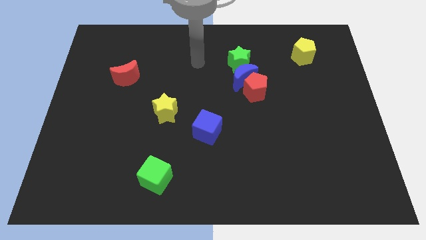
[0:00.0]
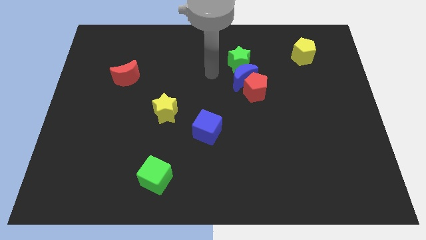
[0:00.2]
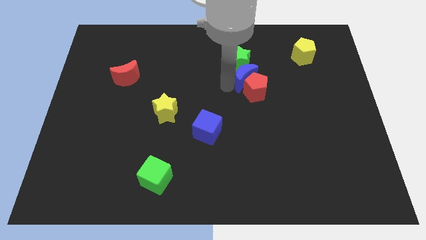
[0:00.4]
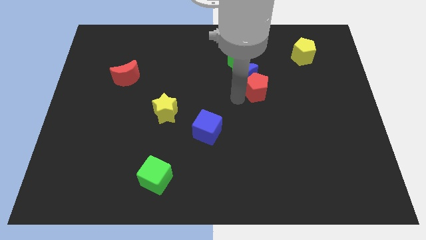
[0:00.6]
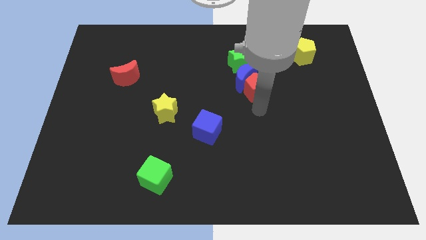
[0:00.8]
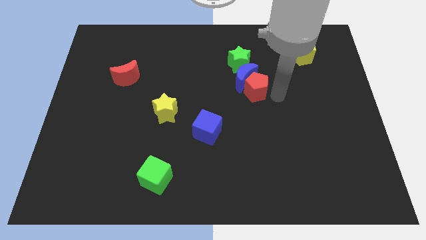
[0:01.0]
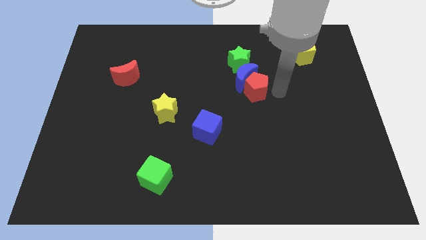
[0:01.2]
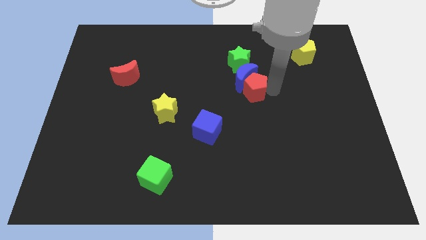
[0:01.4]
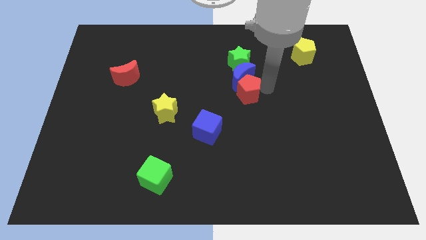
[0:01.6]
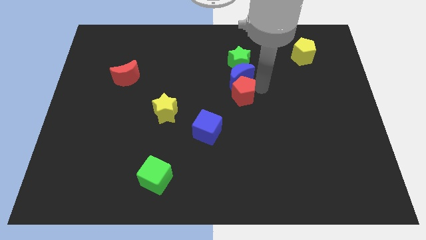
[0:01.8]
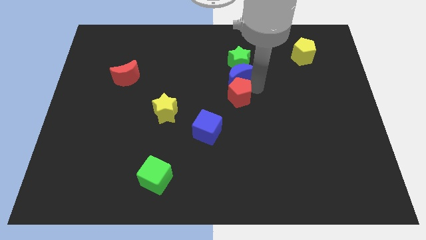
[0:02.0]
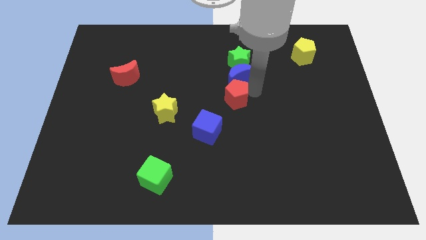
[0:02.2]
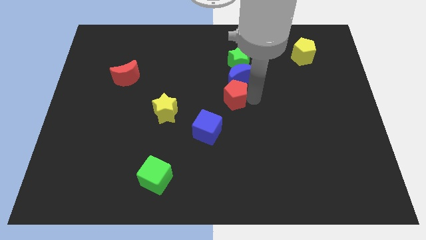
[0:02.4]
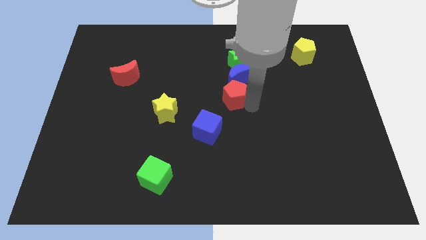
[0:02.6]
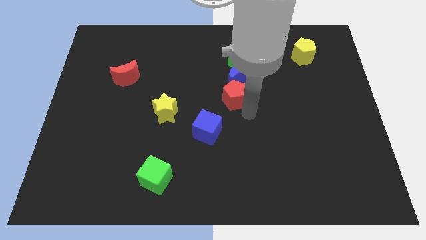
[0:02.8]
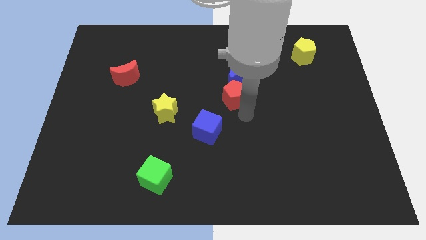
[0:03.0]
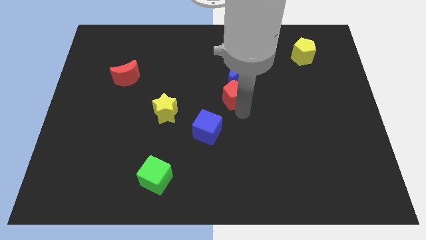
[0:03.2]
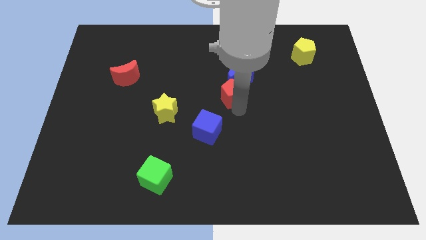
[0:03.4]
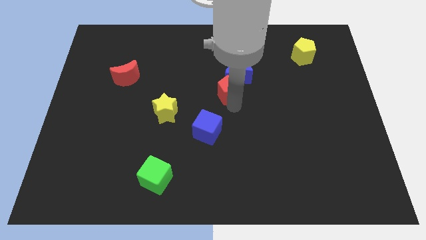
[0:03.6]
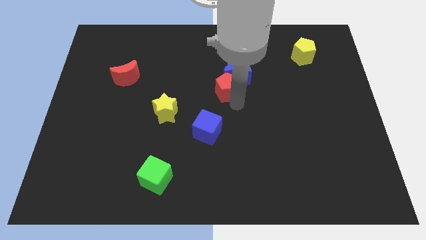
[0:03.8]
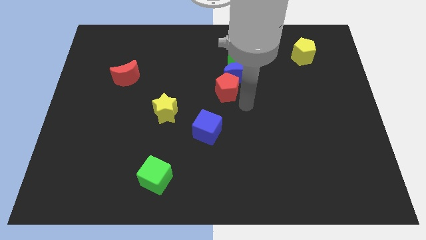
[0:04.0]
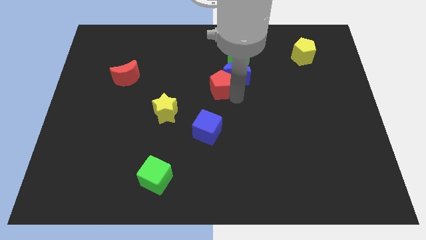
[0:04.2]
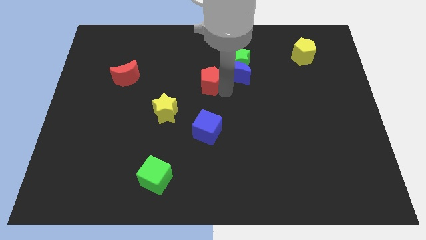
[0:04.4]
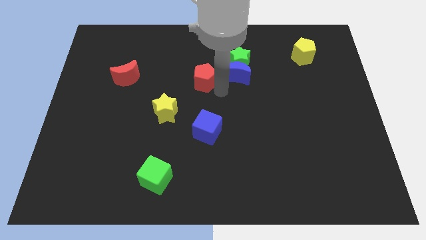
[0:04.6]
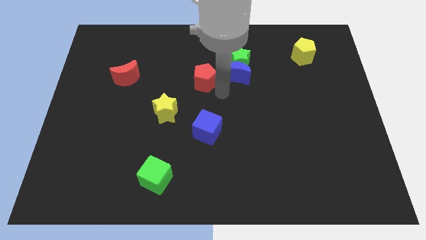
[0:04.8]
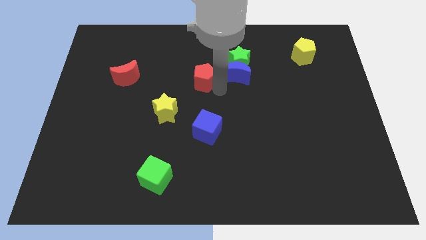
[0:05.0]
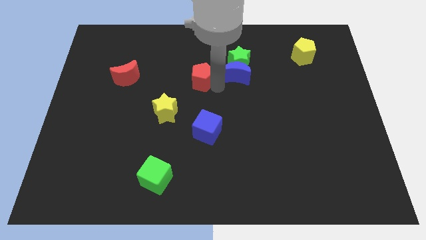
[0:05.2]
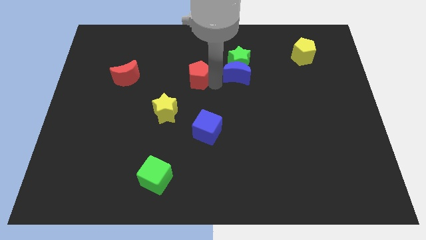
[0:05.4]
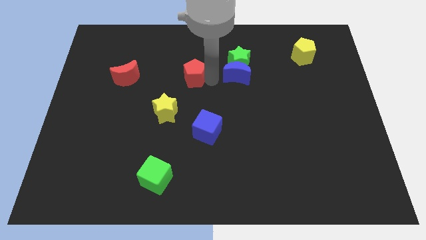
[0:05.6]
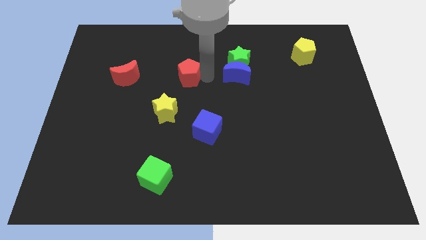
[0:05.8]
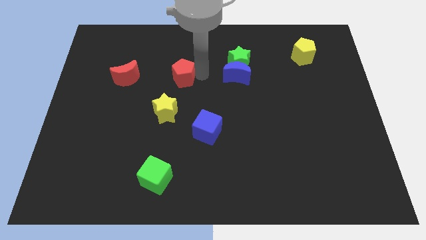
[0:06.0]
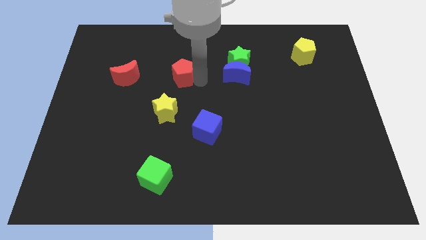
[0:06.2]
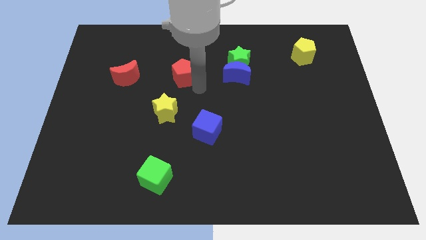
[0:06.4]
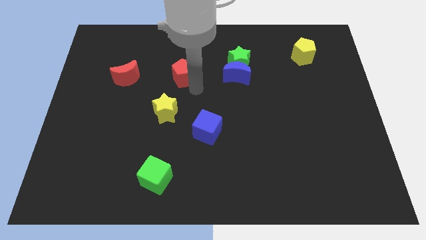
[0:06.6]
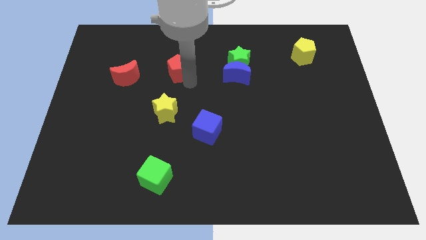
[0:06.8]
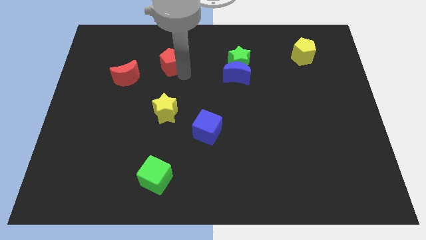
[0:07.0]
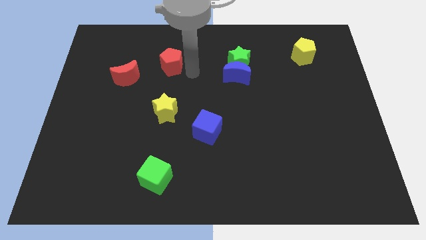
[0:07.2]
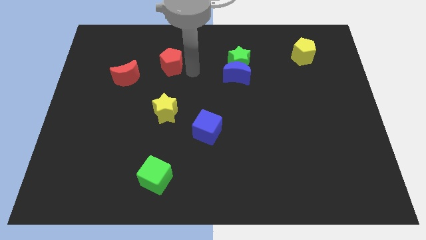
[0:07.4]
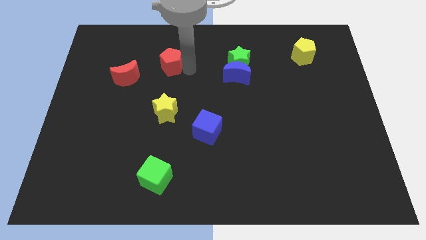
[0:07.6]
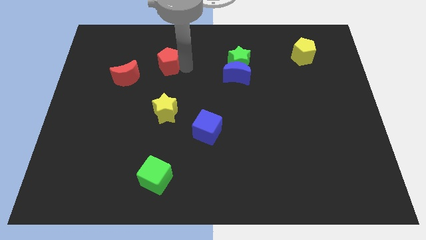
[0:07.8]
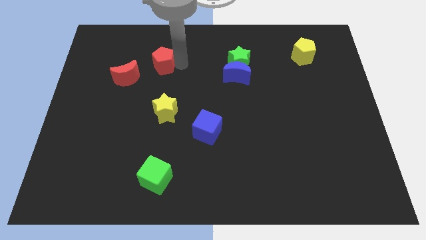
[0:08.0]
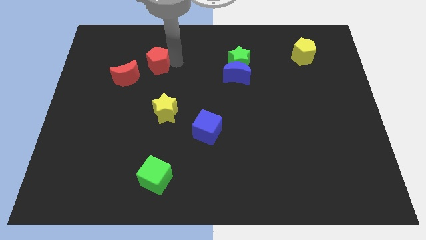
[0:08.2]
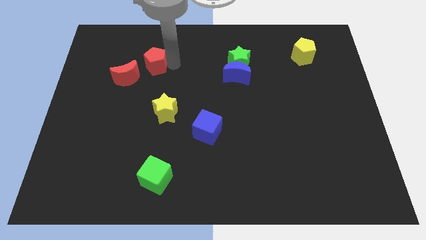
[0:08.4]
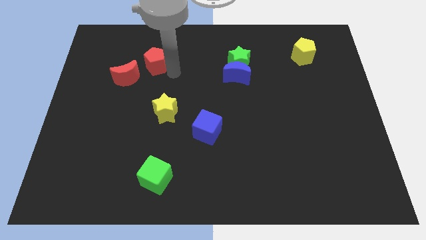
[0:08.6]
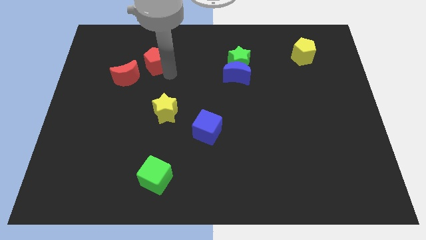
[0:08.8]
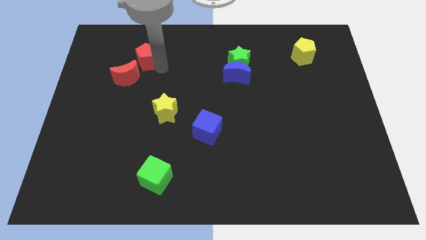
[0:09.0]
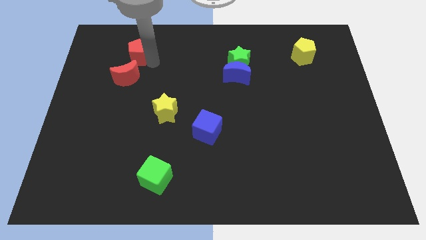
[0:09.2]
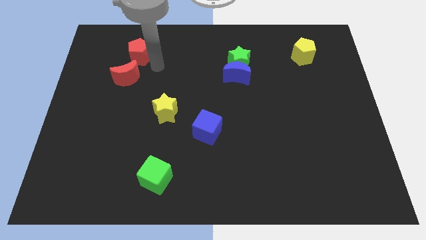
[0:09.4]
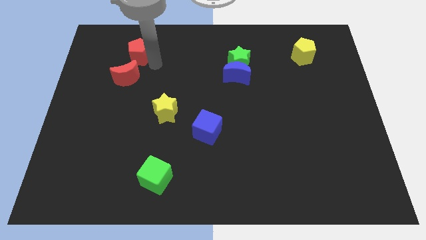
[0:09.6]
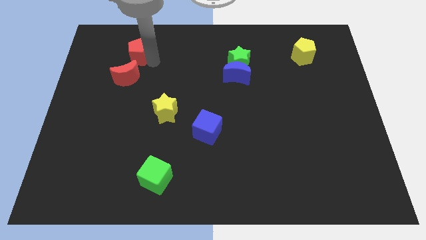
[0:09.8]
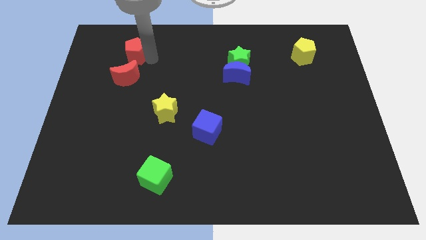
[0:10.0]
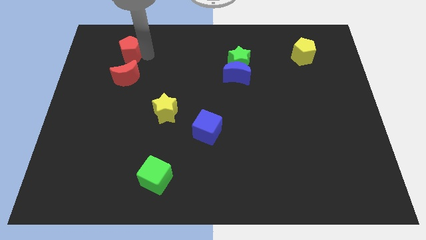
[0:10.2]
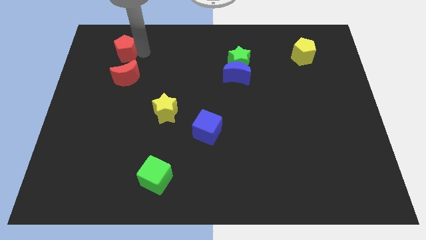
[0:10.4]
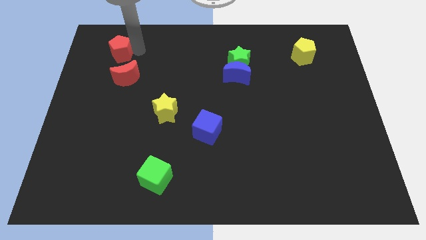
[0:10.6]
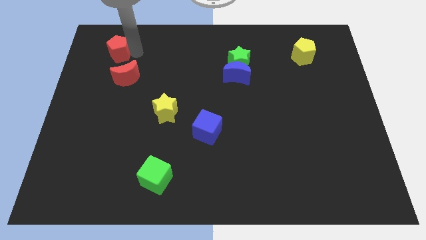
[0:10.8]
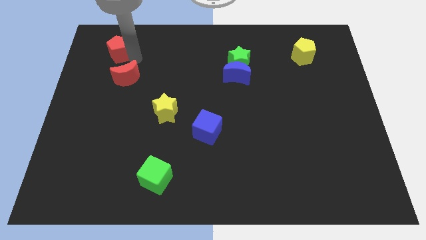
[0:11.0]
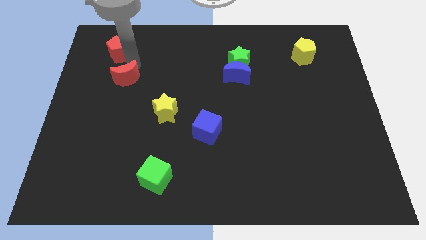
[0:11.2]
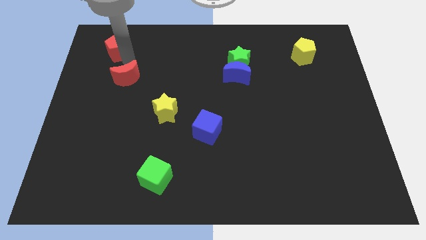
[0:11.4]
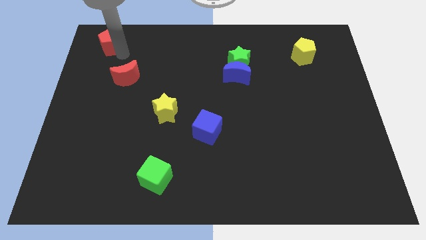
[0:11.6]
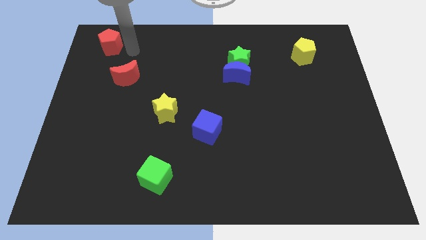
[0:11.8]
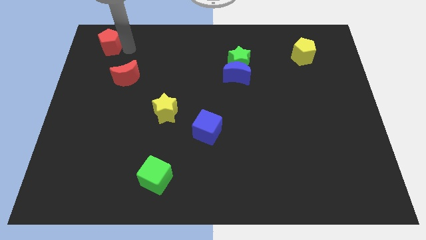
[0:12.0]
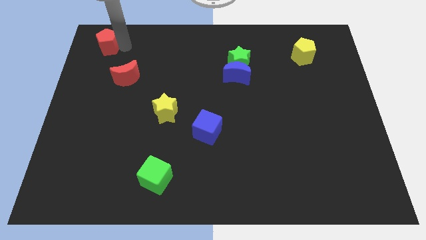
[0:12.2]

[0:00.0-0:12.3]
put the red pentagon to the top left

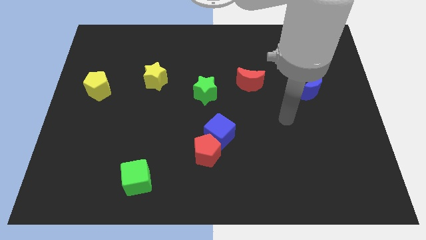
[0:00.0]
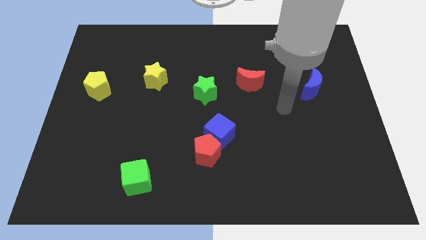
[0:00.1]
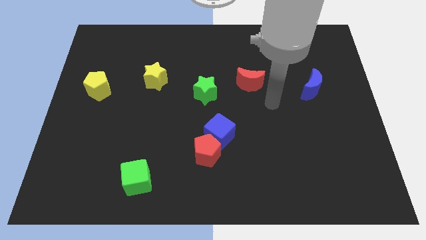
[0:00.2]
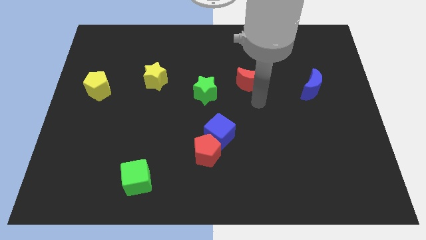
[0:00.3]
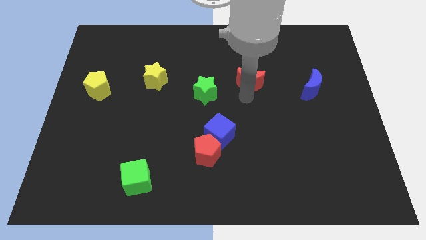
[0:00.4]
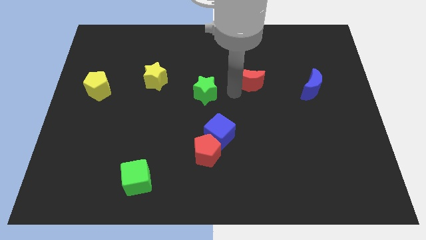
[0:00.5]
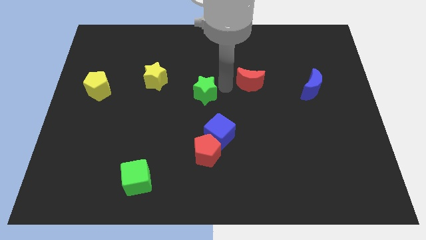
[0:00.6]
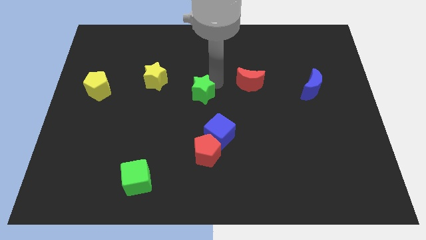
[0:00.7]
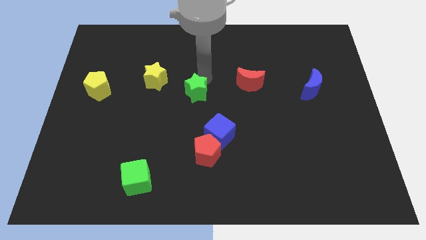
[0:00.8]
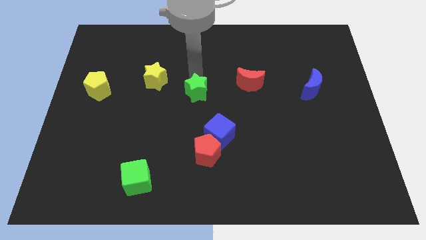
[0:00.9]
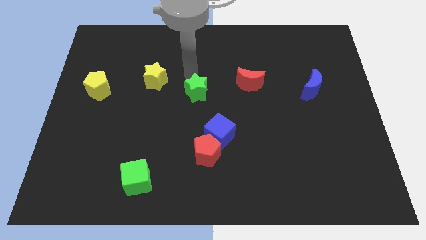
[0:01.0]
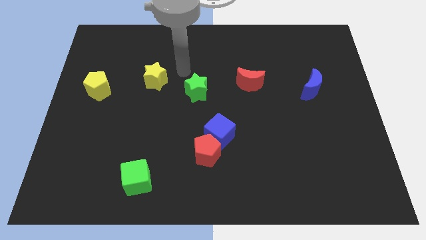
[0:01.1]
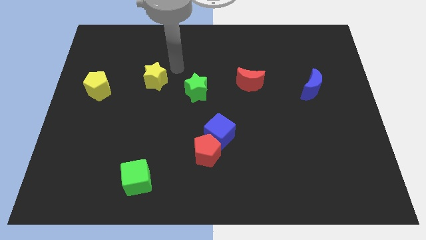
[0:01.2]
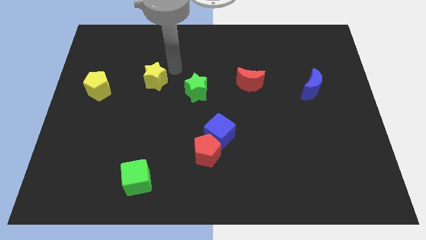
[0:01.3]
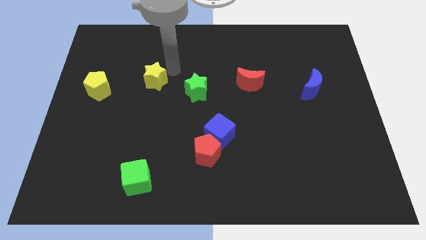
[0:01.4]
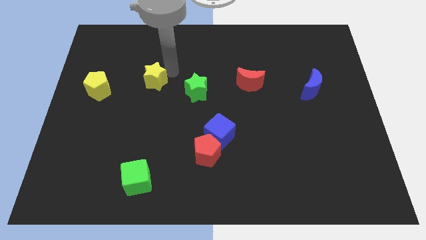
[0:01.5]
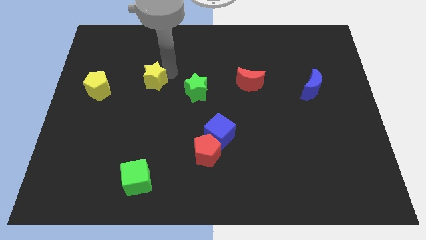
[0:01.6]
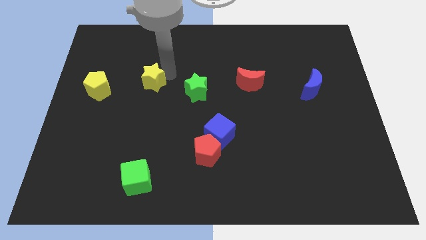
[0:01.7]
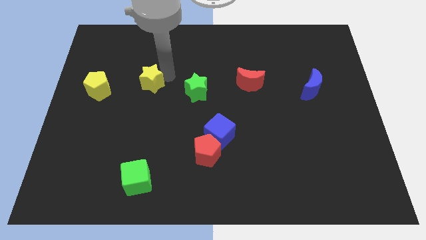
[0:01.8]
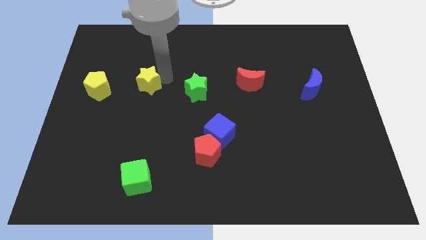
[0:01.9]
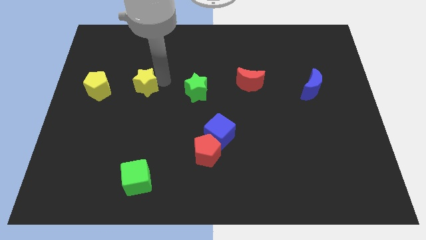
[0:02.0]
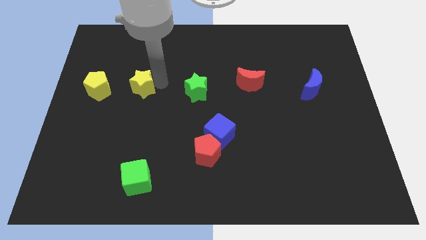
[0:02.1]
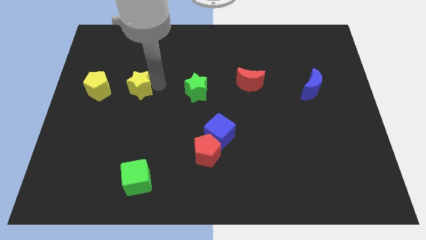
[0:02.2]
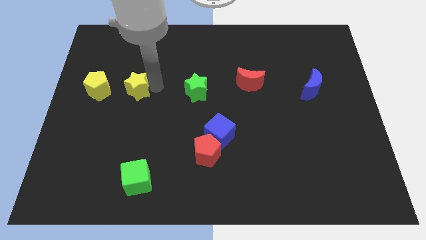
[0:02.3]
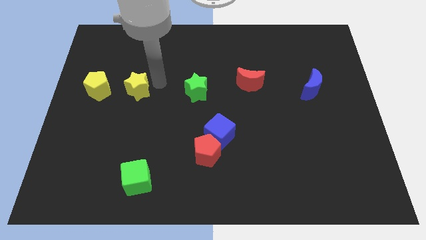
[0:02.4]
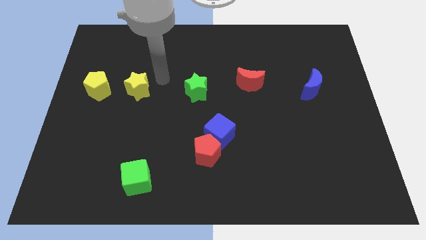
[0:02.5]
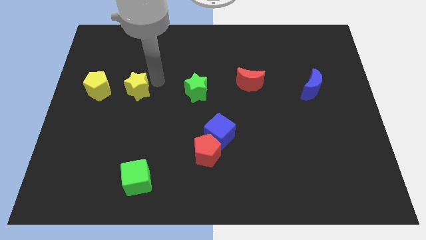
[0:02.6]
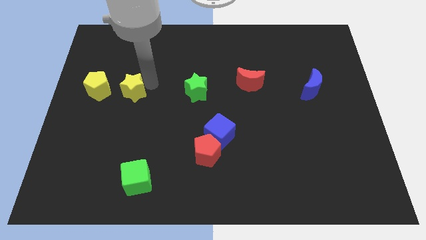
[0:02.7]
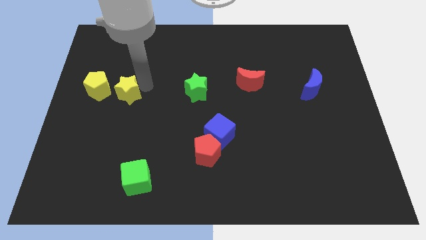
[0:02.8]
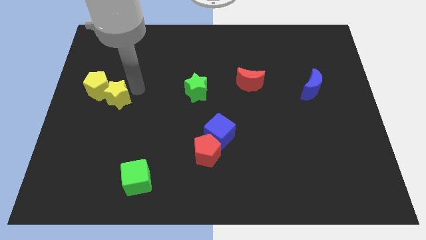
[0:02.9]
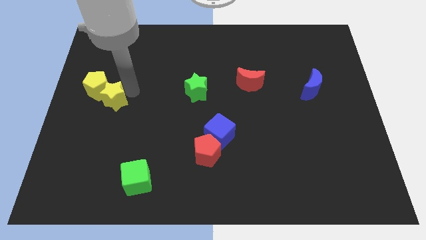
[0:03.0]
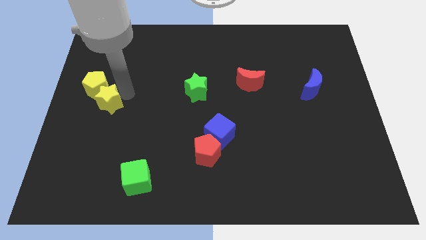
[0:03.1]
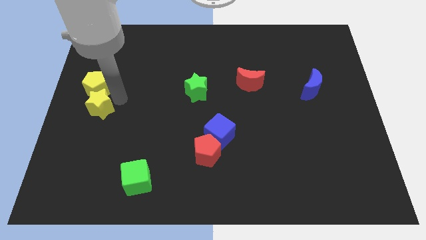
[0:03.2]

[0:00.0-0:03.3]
move the yellow star to the left side
